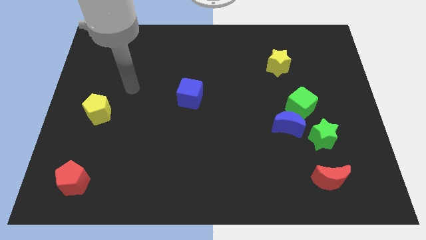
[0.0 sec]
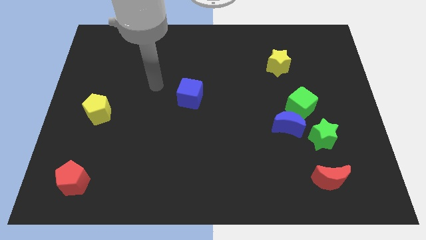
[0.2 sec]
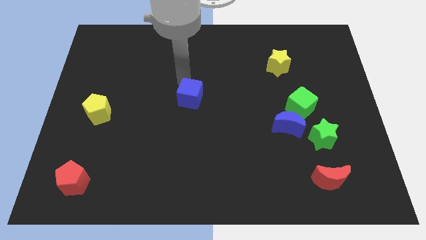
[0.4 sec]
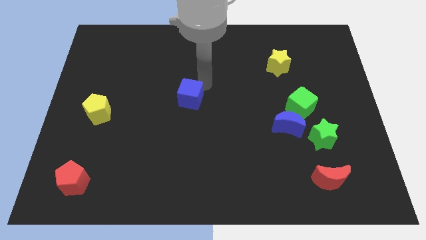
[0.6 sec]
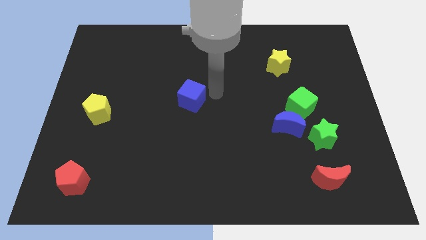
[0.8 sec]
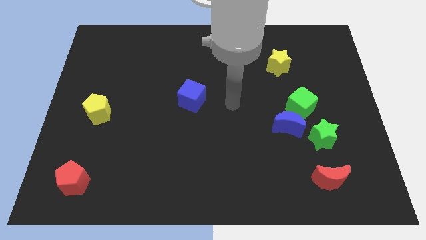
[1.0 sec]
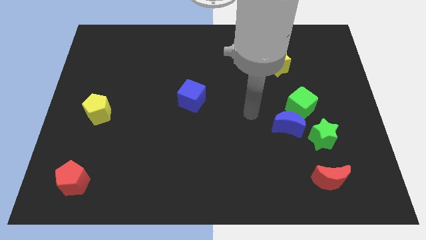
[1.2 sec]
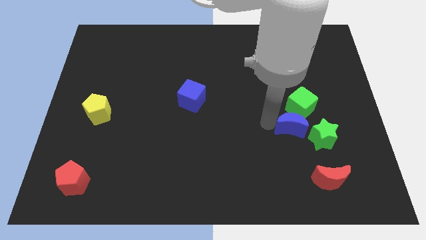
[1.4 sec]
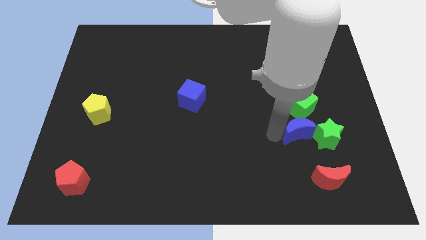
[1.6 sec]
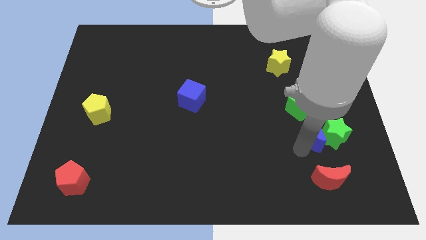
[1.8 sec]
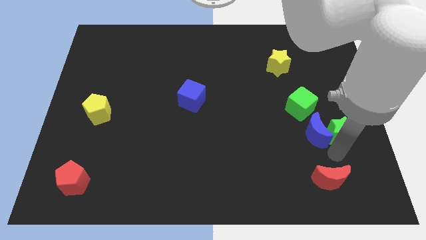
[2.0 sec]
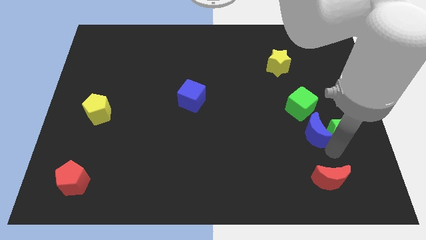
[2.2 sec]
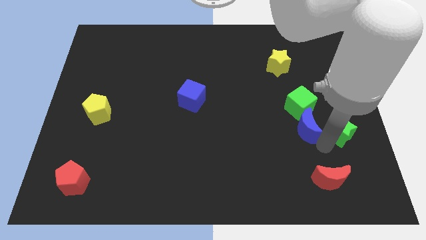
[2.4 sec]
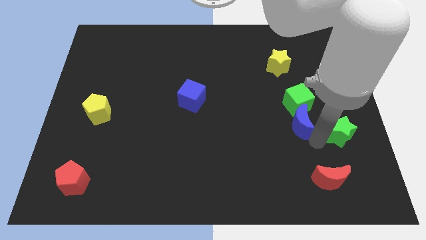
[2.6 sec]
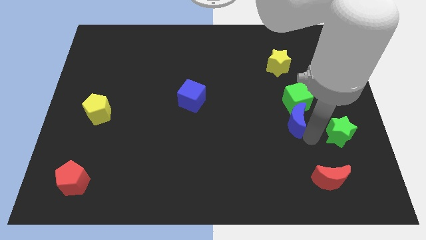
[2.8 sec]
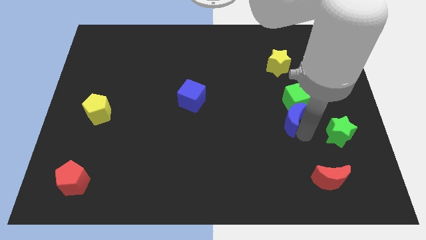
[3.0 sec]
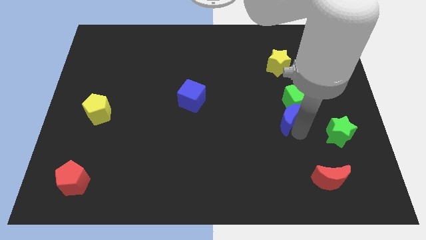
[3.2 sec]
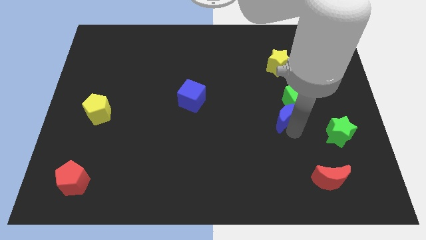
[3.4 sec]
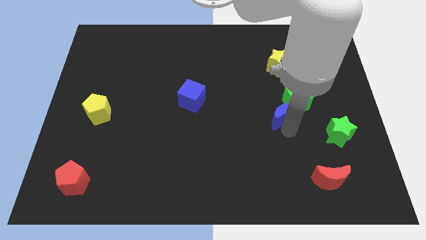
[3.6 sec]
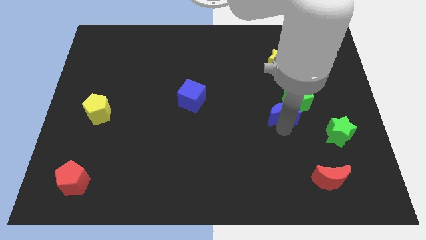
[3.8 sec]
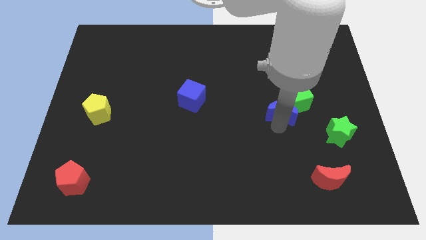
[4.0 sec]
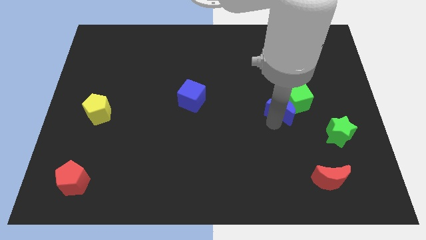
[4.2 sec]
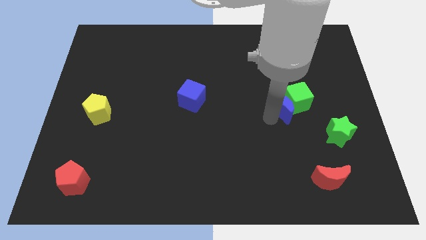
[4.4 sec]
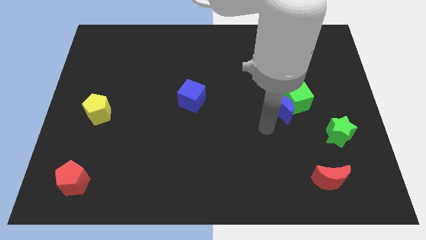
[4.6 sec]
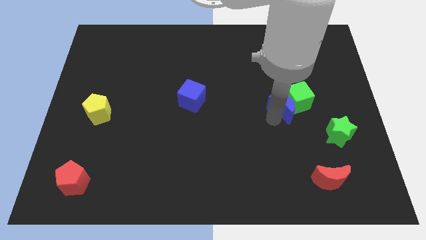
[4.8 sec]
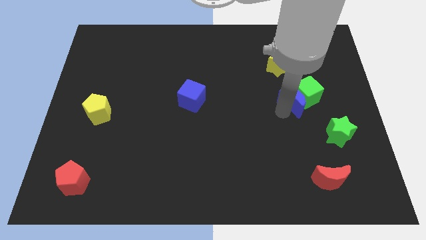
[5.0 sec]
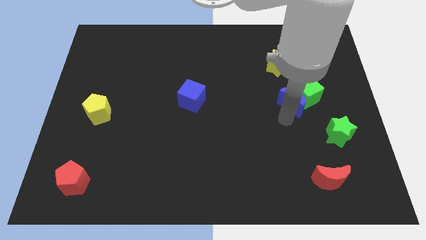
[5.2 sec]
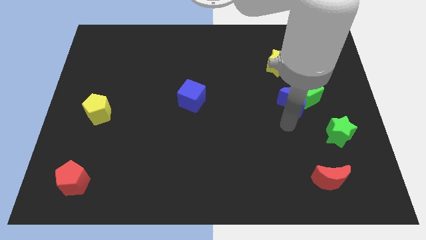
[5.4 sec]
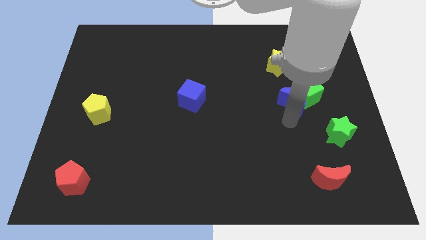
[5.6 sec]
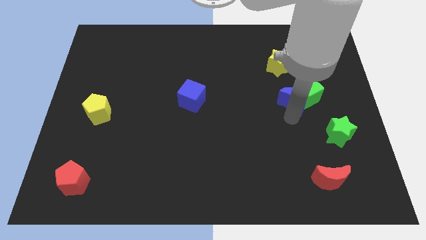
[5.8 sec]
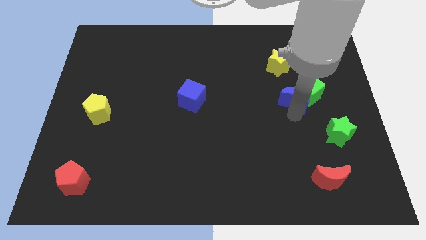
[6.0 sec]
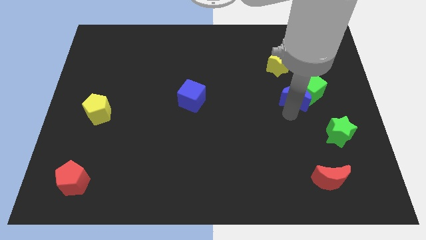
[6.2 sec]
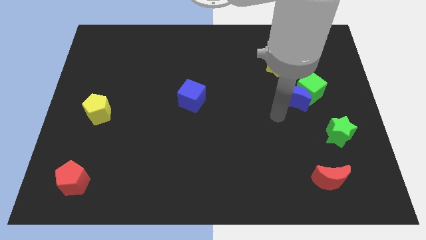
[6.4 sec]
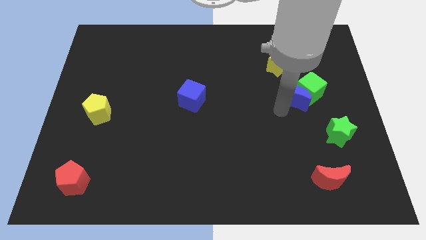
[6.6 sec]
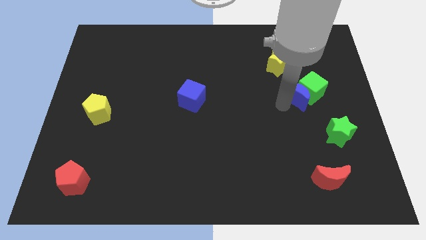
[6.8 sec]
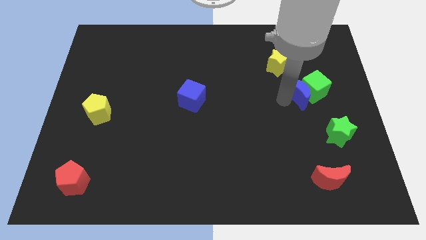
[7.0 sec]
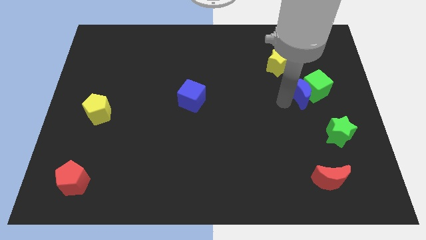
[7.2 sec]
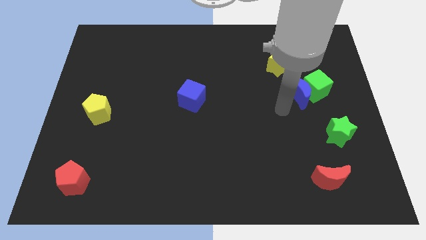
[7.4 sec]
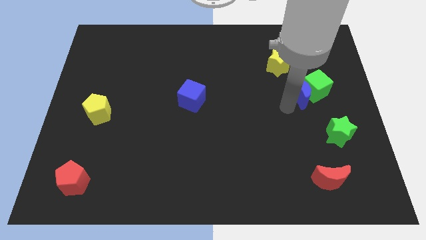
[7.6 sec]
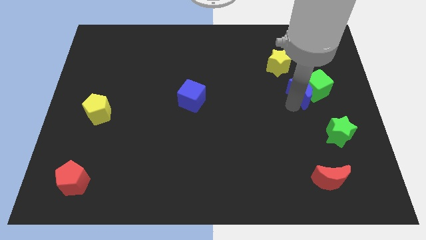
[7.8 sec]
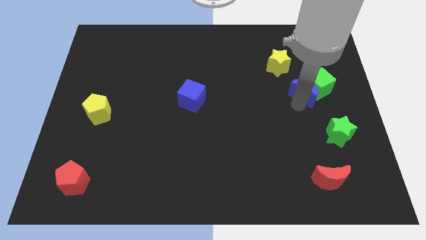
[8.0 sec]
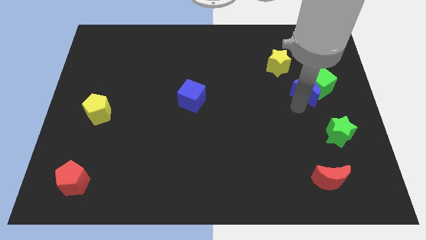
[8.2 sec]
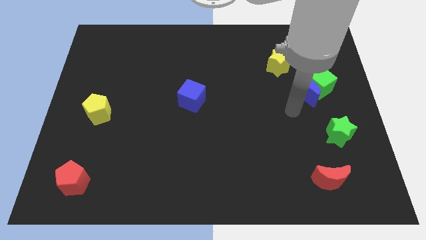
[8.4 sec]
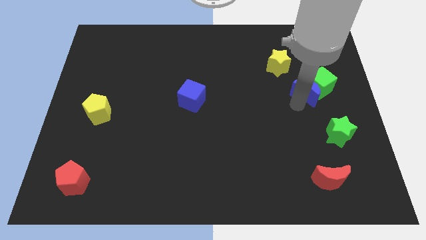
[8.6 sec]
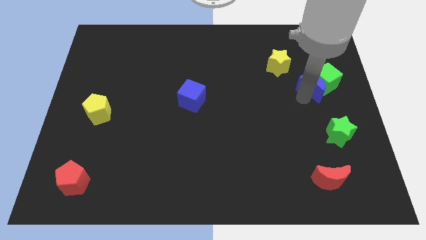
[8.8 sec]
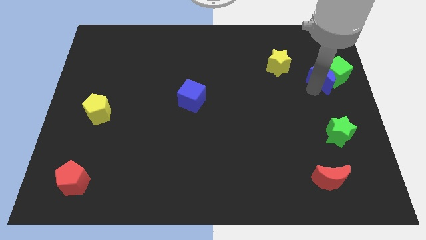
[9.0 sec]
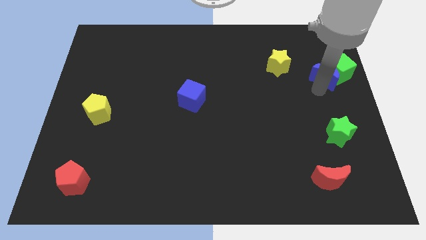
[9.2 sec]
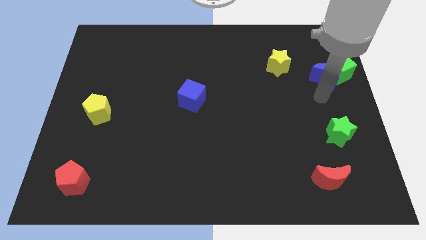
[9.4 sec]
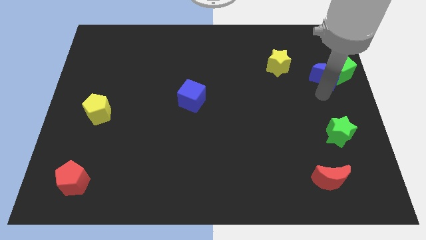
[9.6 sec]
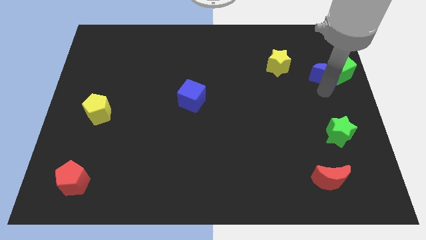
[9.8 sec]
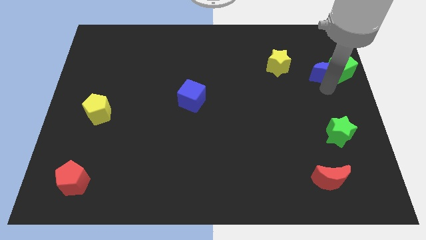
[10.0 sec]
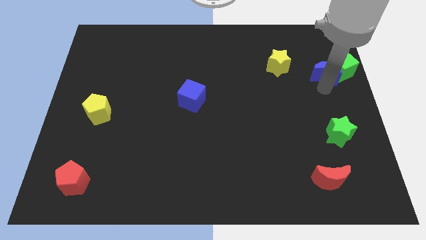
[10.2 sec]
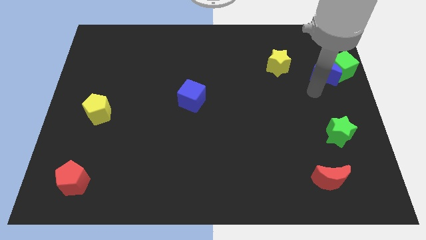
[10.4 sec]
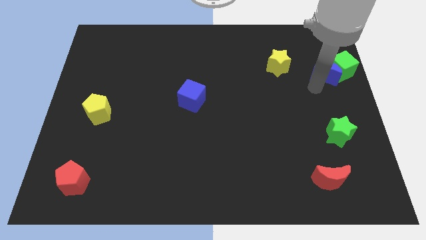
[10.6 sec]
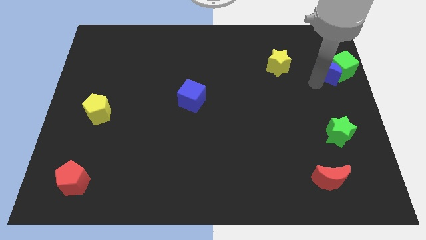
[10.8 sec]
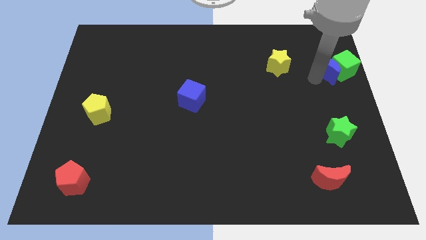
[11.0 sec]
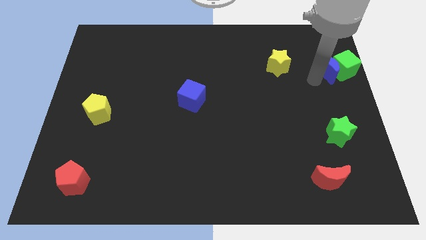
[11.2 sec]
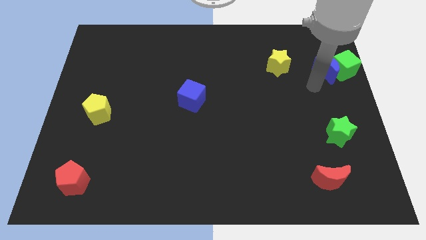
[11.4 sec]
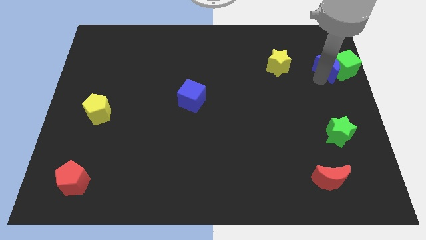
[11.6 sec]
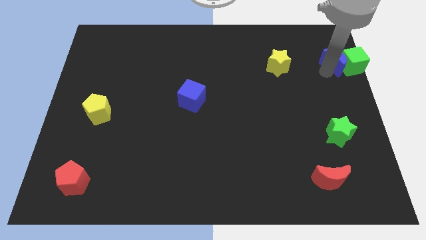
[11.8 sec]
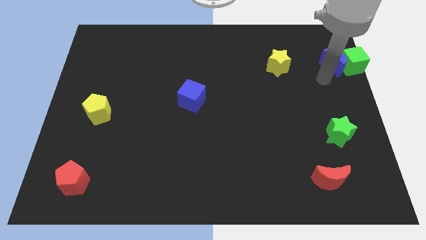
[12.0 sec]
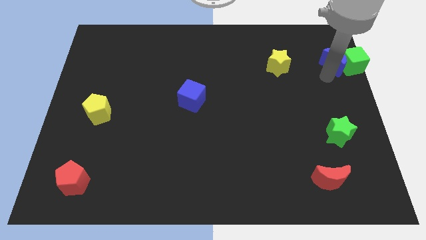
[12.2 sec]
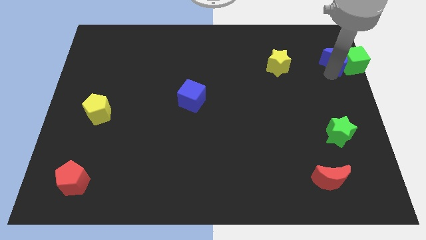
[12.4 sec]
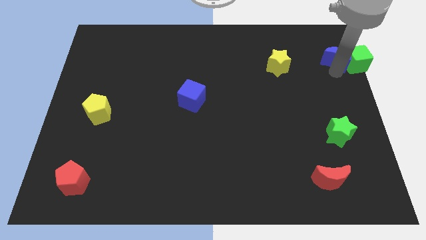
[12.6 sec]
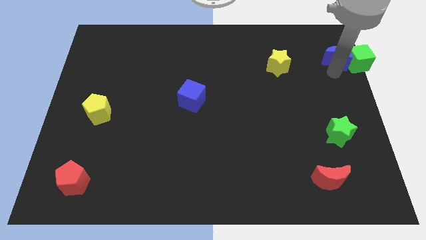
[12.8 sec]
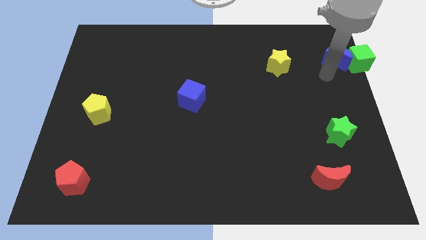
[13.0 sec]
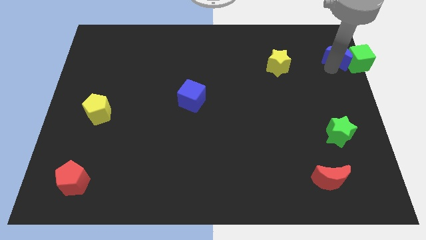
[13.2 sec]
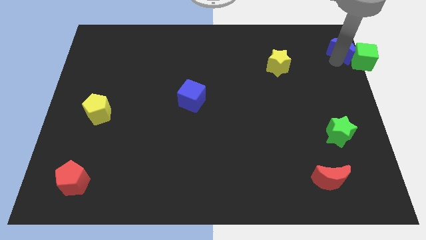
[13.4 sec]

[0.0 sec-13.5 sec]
push the blue moon to the top right
